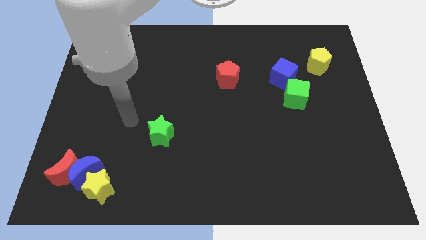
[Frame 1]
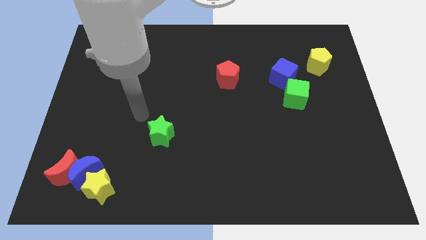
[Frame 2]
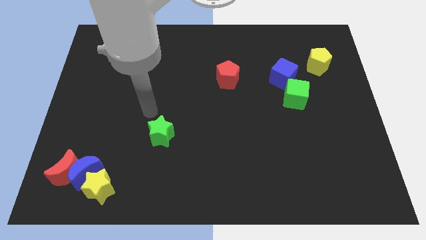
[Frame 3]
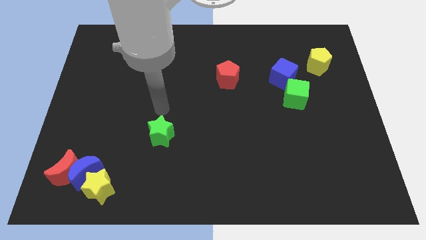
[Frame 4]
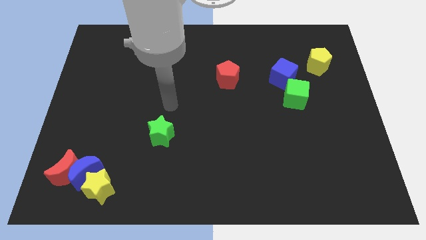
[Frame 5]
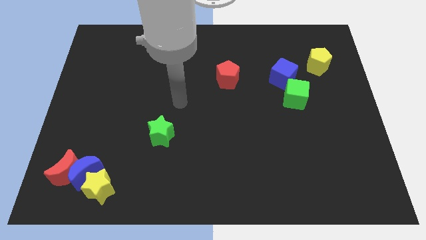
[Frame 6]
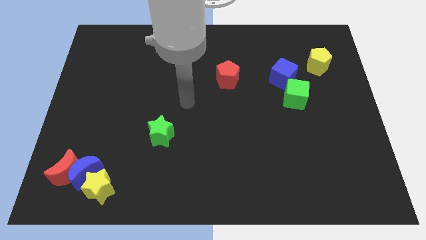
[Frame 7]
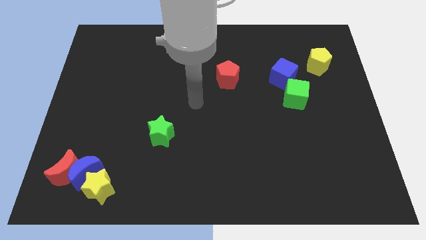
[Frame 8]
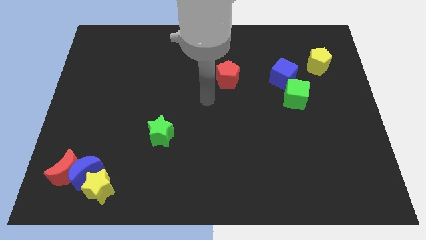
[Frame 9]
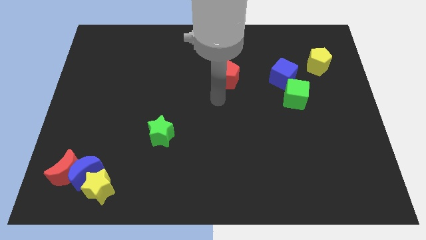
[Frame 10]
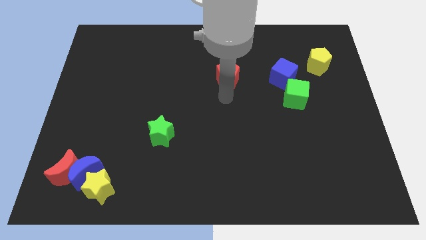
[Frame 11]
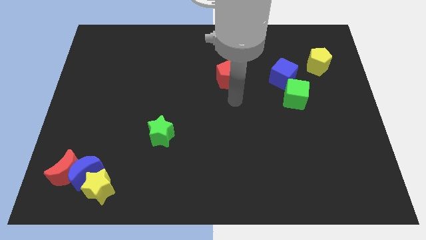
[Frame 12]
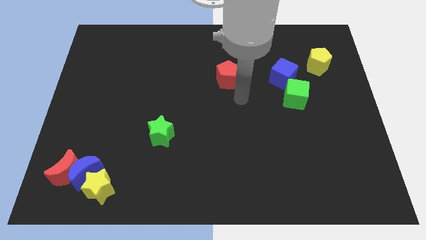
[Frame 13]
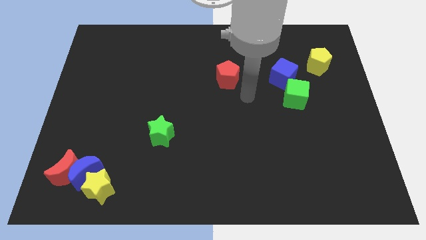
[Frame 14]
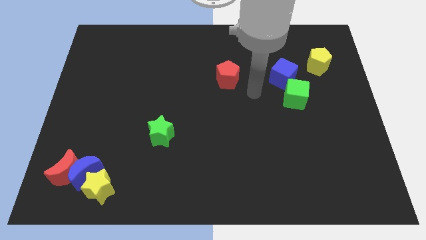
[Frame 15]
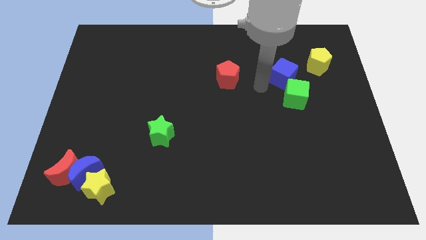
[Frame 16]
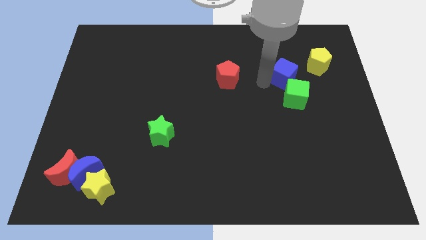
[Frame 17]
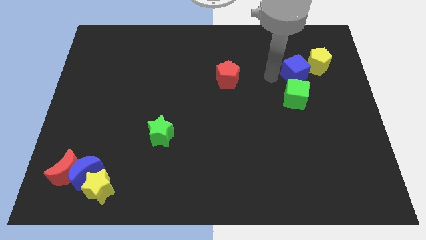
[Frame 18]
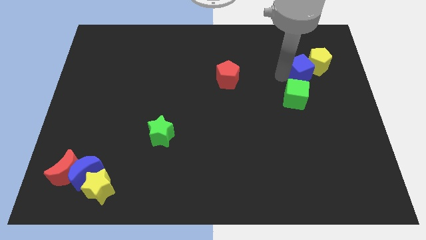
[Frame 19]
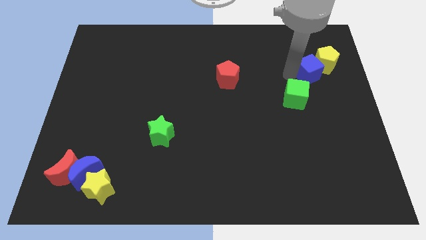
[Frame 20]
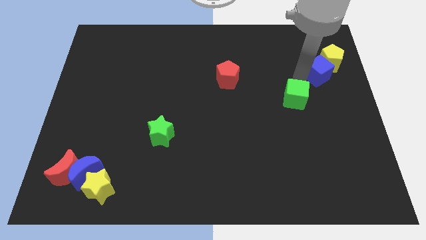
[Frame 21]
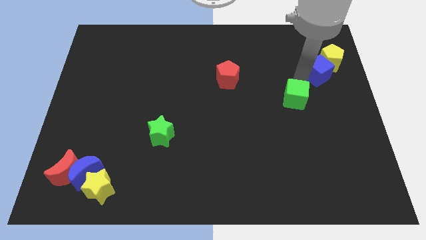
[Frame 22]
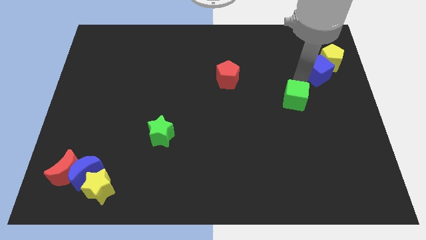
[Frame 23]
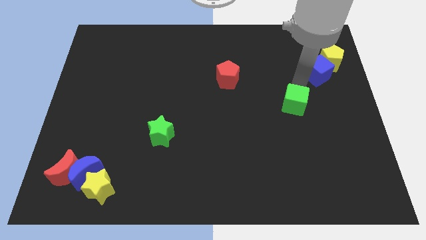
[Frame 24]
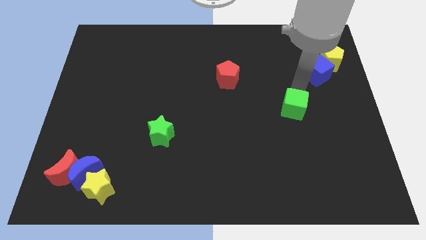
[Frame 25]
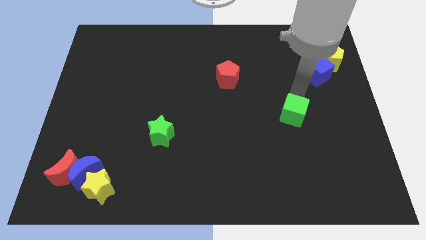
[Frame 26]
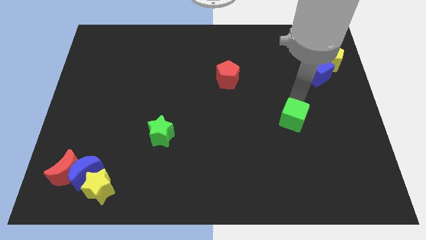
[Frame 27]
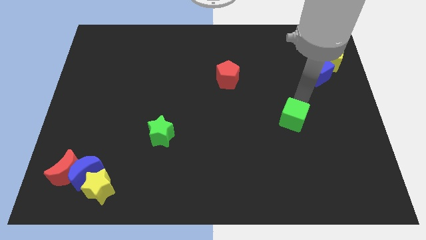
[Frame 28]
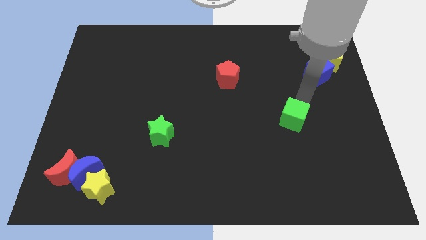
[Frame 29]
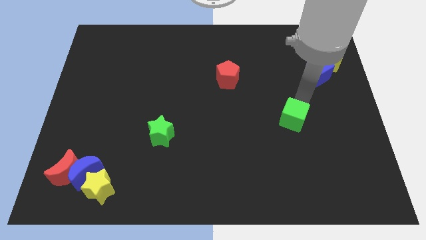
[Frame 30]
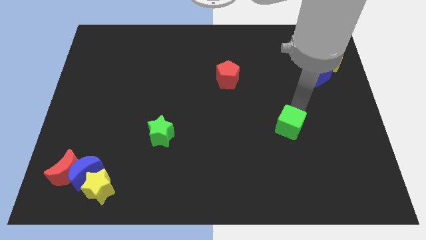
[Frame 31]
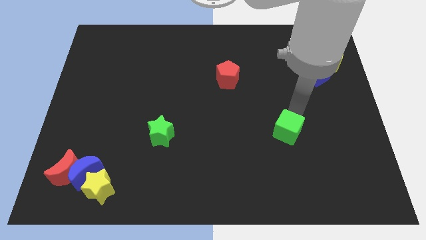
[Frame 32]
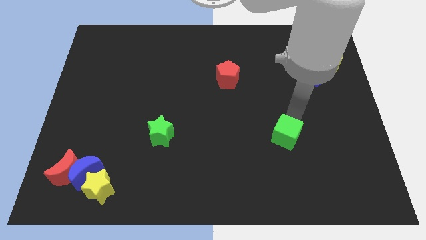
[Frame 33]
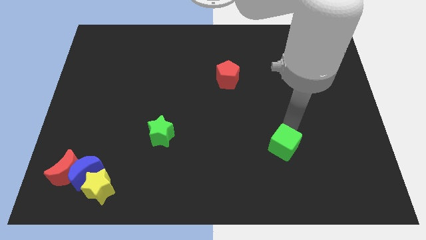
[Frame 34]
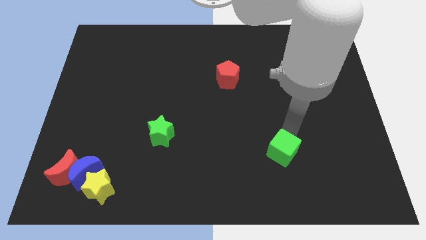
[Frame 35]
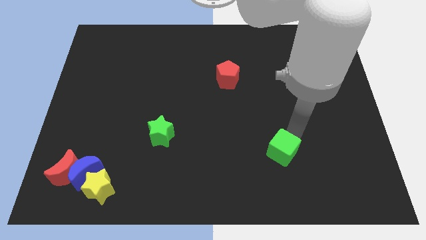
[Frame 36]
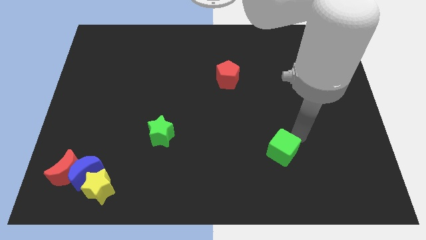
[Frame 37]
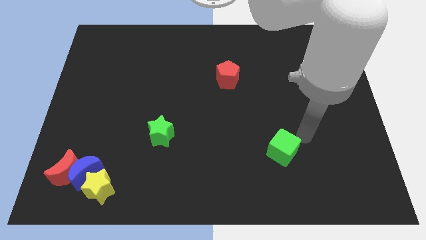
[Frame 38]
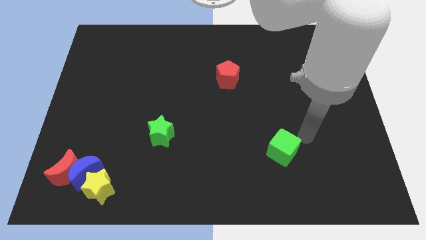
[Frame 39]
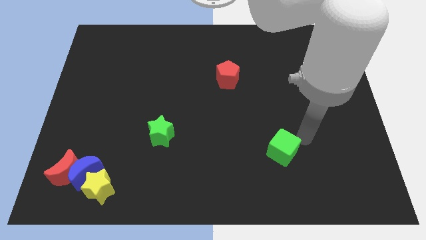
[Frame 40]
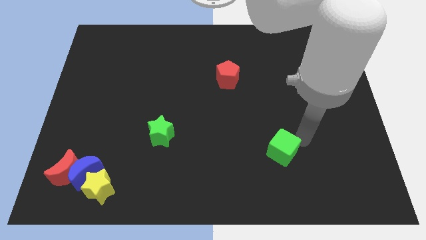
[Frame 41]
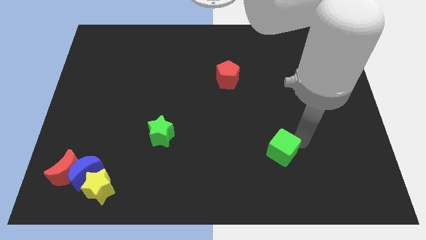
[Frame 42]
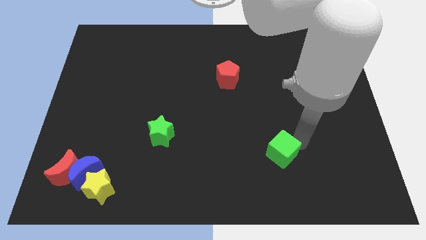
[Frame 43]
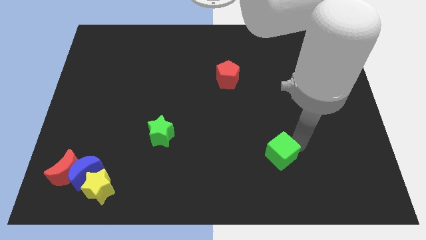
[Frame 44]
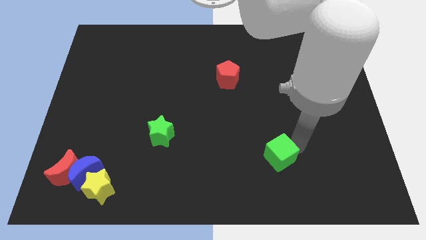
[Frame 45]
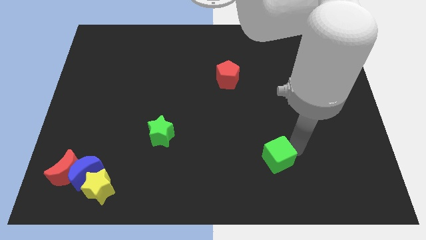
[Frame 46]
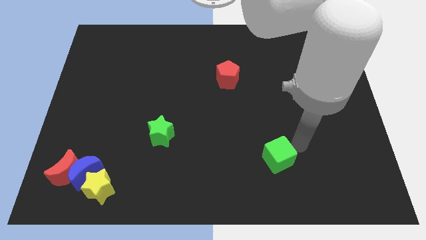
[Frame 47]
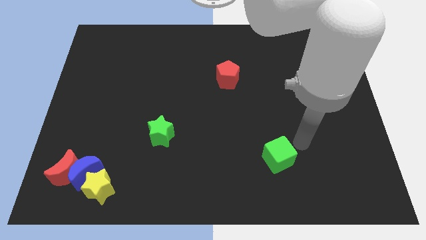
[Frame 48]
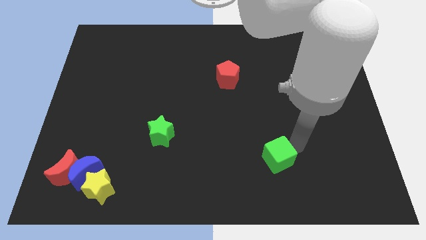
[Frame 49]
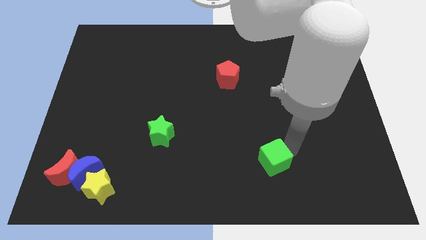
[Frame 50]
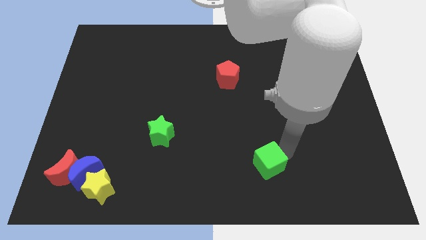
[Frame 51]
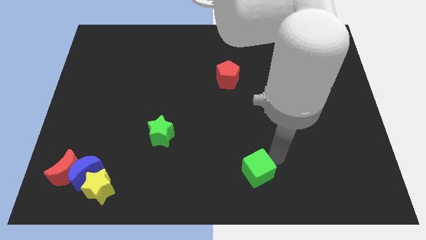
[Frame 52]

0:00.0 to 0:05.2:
slide the green cube to the bottom side
